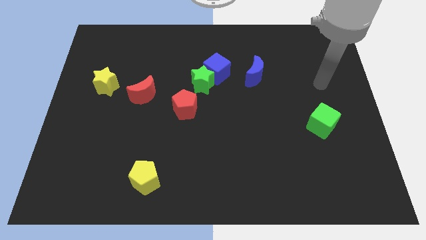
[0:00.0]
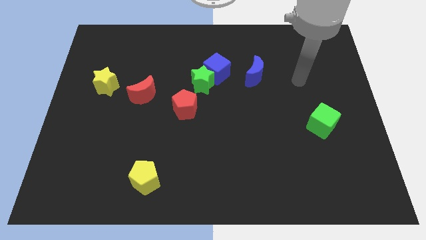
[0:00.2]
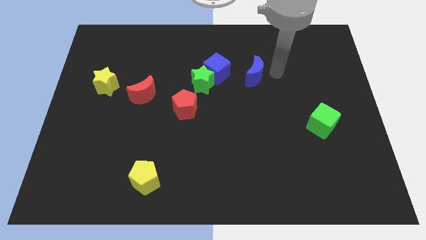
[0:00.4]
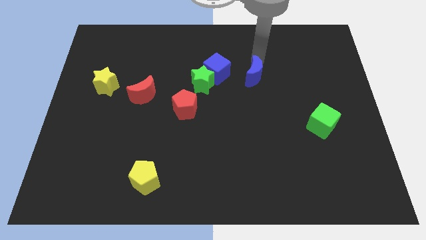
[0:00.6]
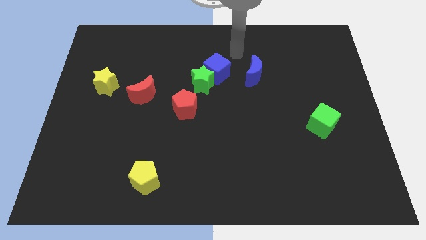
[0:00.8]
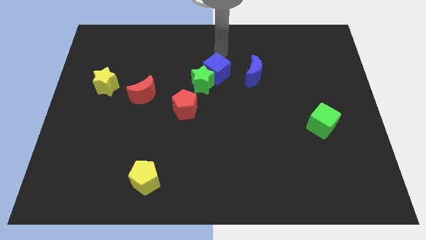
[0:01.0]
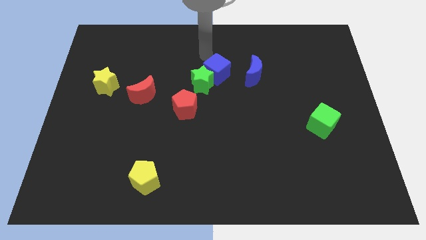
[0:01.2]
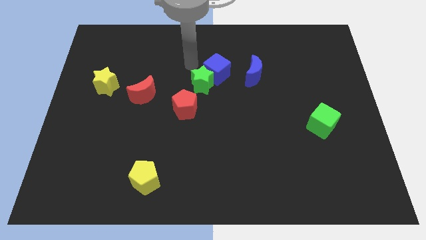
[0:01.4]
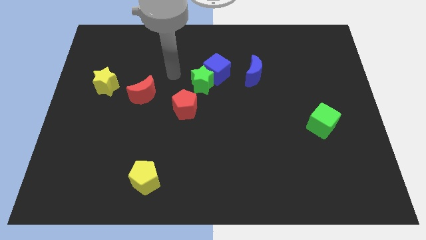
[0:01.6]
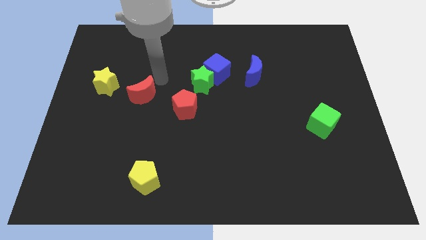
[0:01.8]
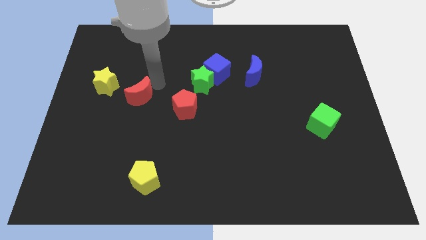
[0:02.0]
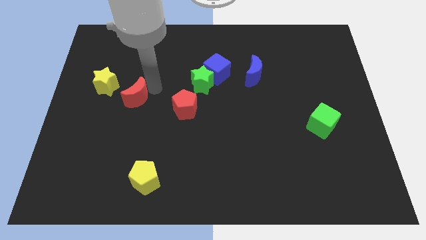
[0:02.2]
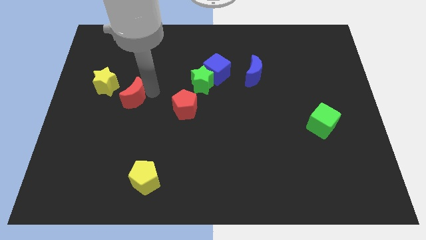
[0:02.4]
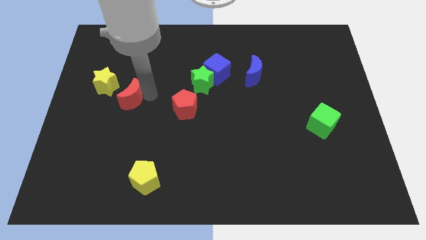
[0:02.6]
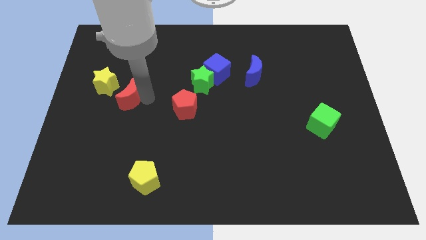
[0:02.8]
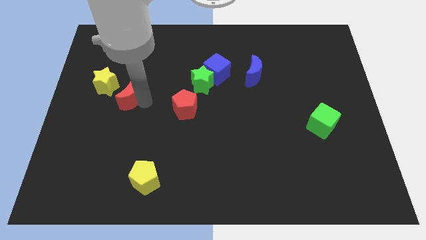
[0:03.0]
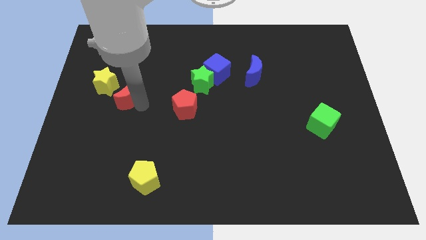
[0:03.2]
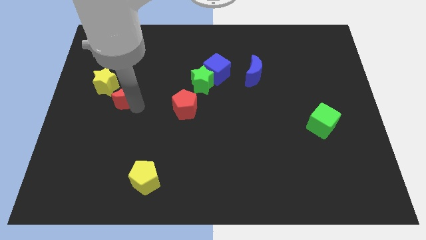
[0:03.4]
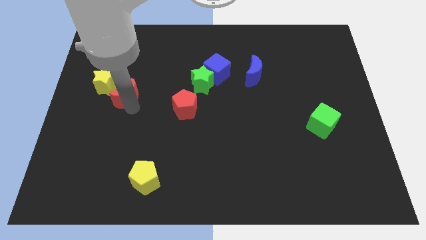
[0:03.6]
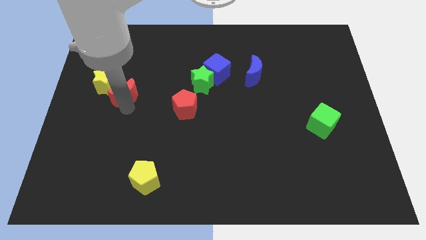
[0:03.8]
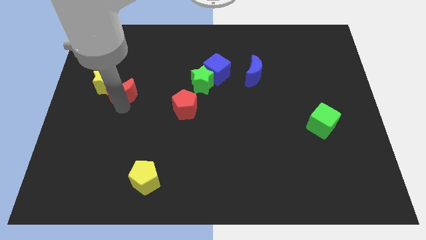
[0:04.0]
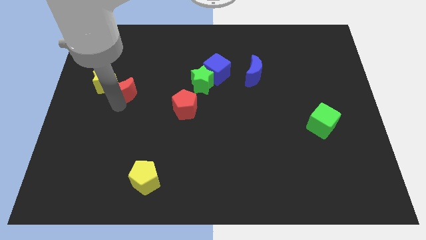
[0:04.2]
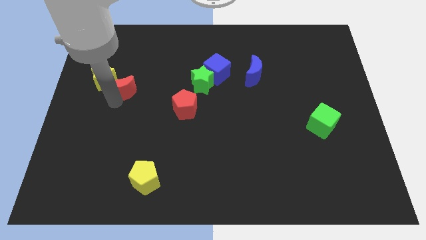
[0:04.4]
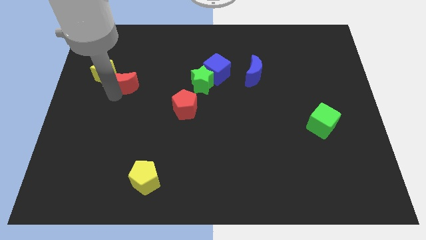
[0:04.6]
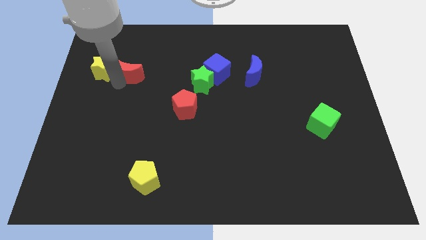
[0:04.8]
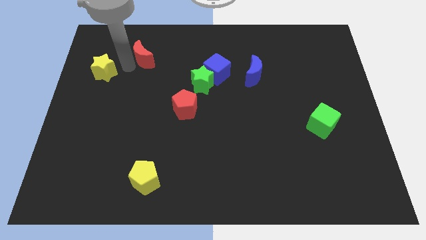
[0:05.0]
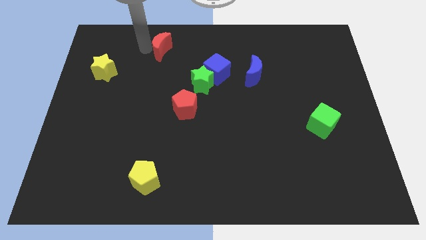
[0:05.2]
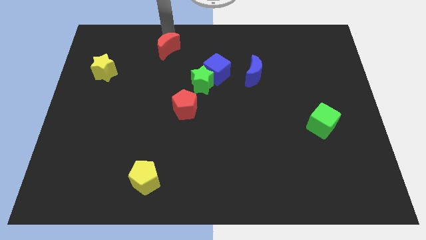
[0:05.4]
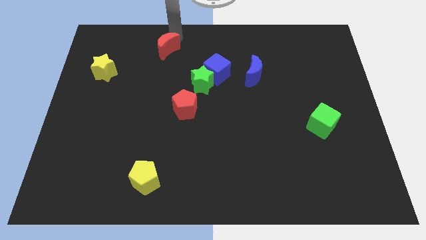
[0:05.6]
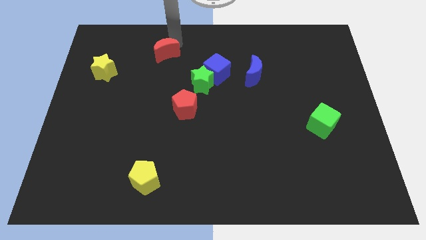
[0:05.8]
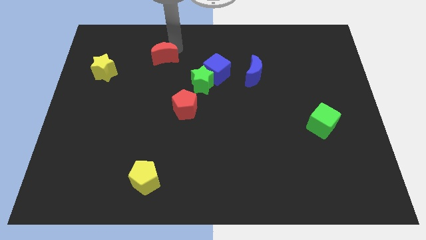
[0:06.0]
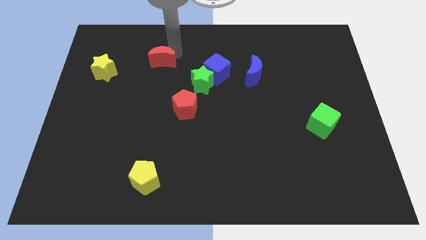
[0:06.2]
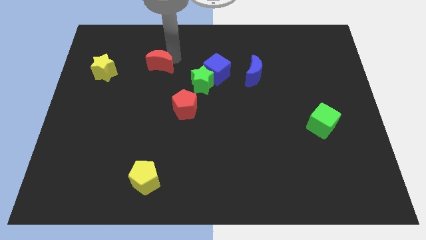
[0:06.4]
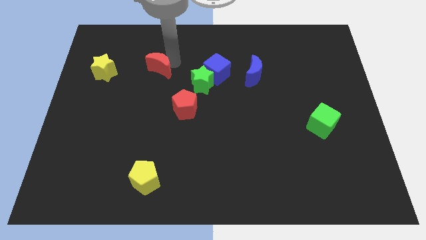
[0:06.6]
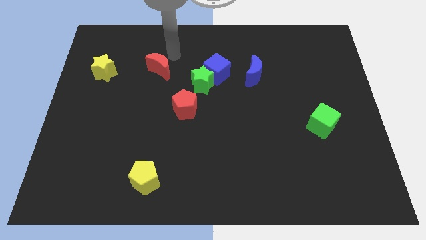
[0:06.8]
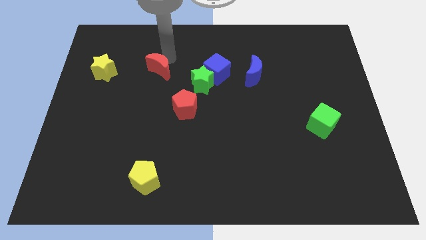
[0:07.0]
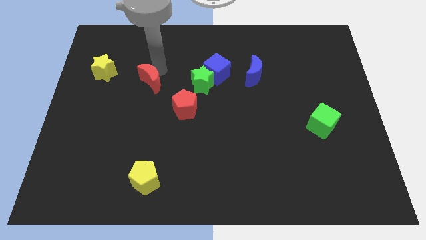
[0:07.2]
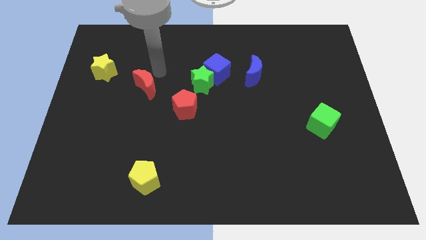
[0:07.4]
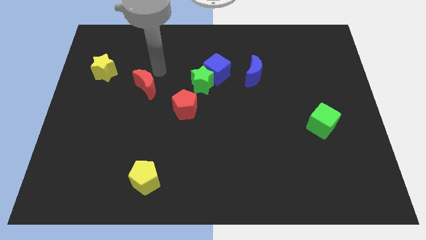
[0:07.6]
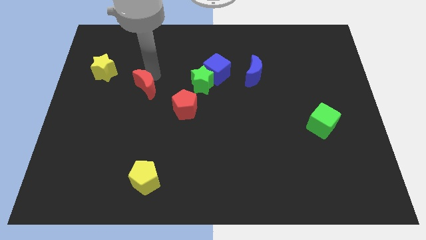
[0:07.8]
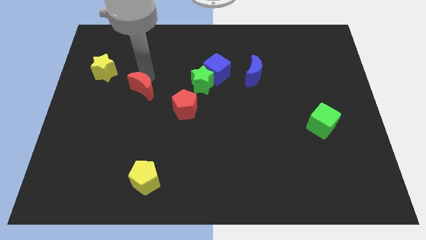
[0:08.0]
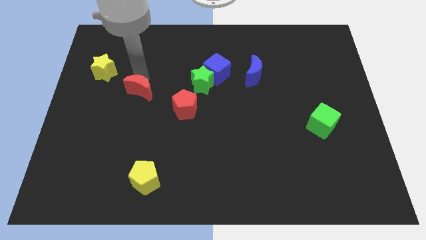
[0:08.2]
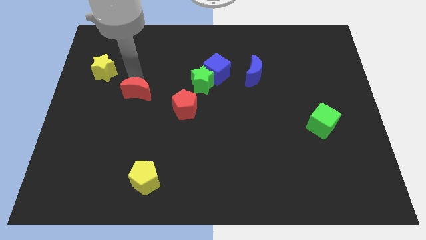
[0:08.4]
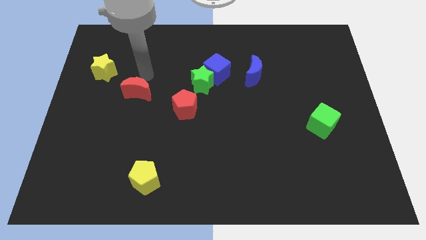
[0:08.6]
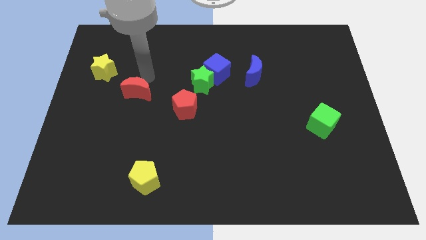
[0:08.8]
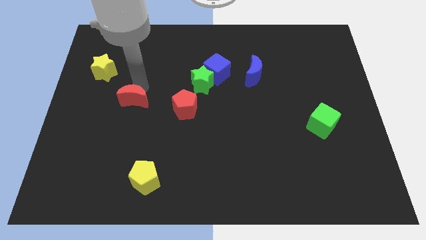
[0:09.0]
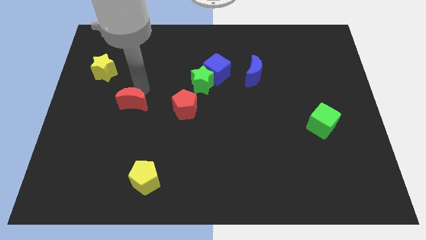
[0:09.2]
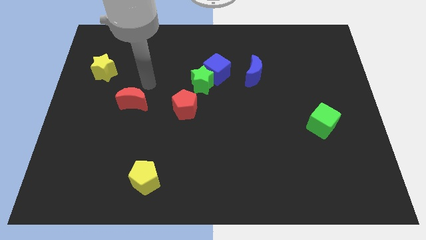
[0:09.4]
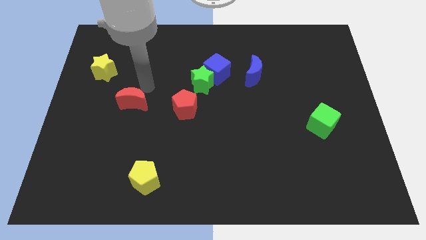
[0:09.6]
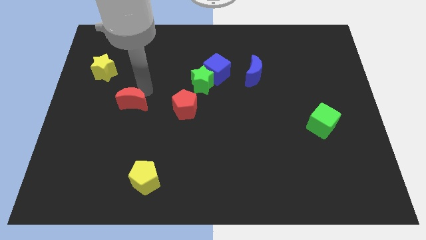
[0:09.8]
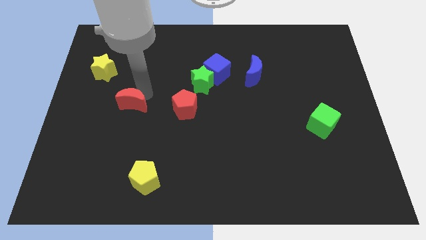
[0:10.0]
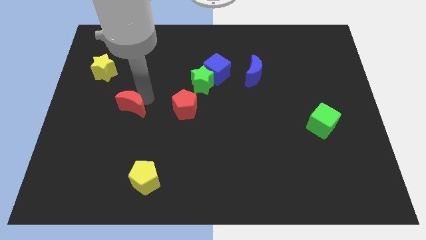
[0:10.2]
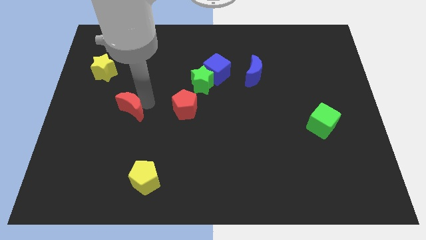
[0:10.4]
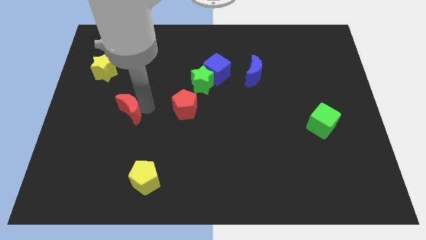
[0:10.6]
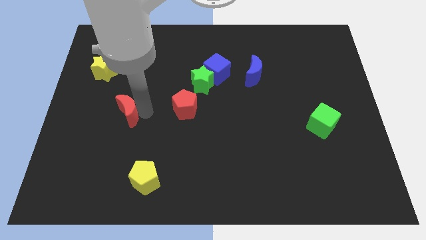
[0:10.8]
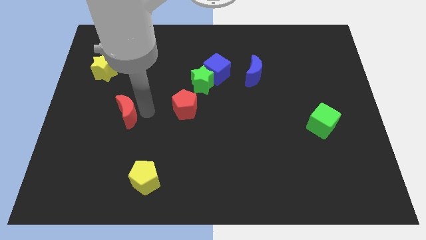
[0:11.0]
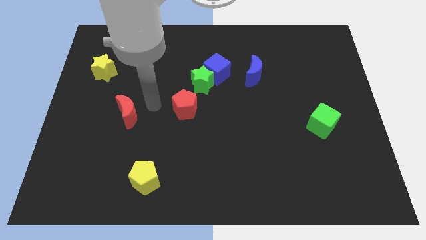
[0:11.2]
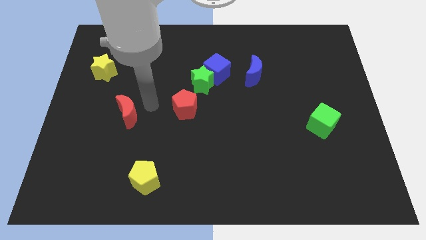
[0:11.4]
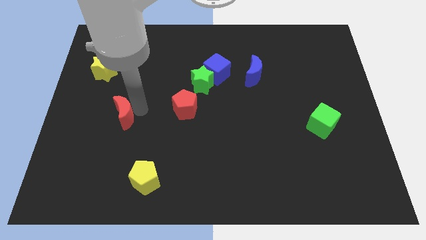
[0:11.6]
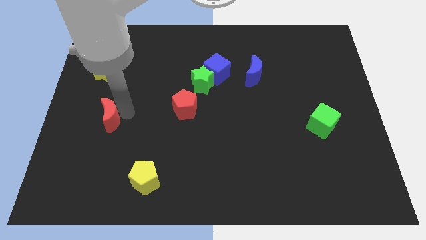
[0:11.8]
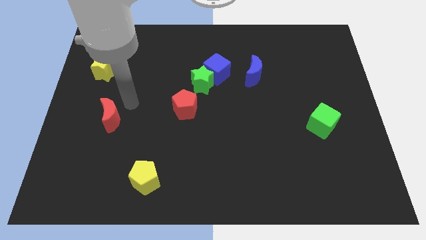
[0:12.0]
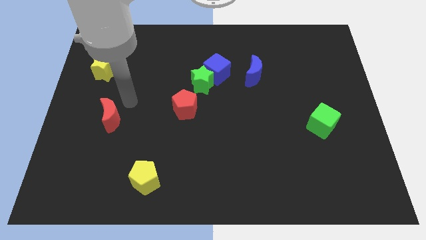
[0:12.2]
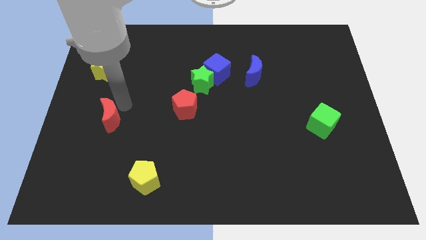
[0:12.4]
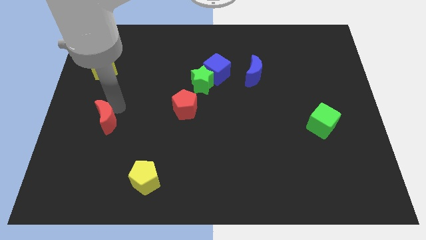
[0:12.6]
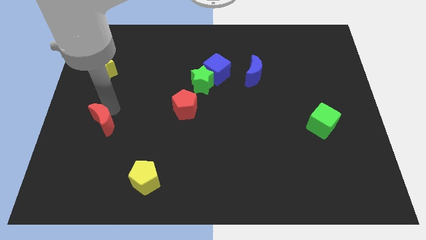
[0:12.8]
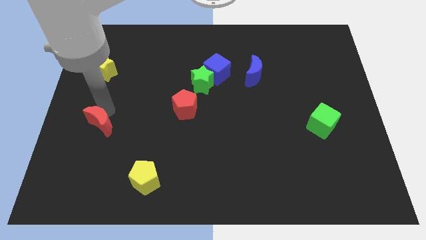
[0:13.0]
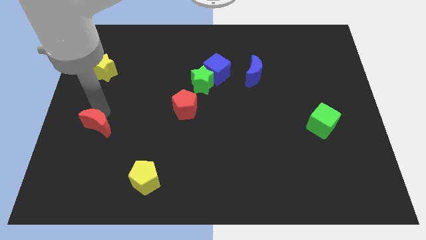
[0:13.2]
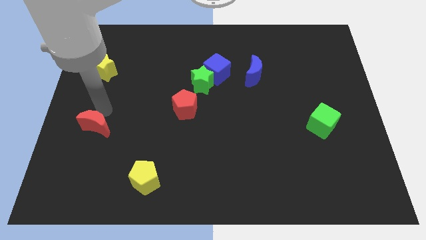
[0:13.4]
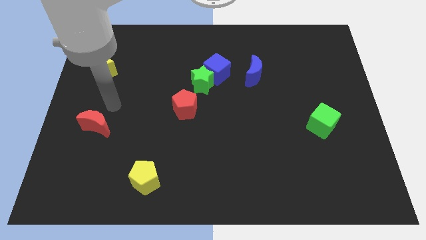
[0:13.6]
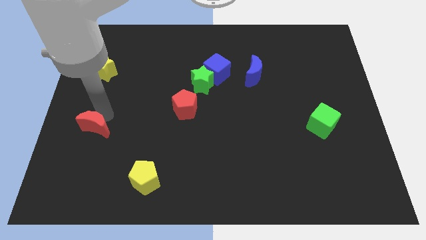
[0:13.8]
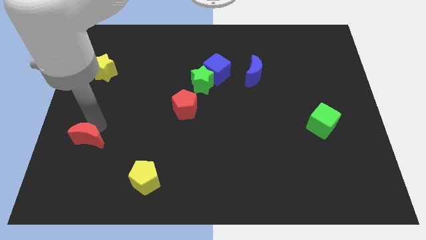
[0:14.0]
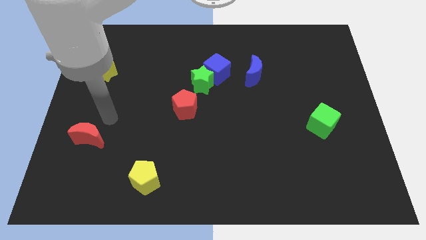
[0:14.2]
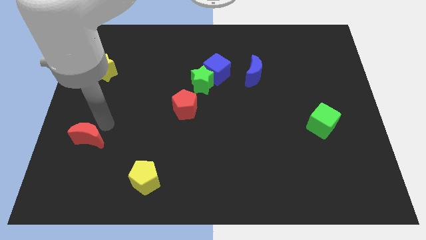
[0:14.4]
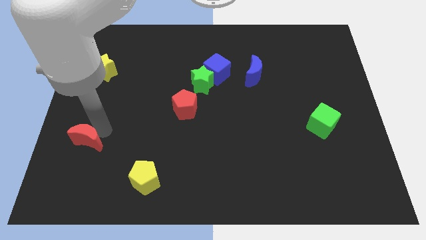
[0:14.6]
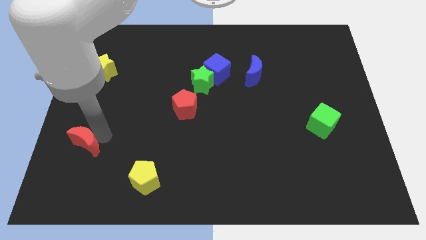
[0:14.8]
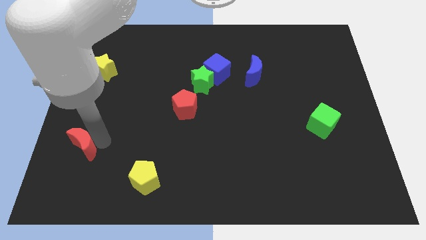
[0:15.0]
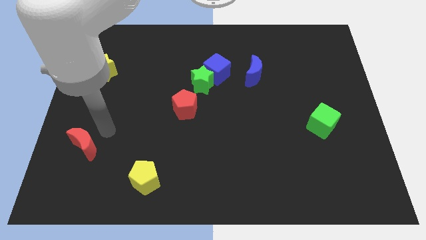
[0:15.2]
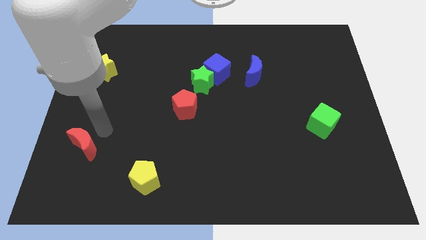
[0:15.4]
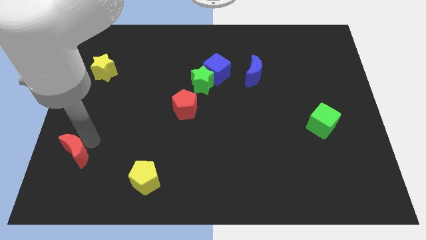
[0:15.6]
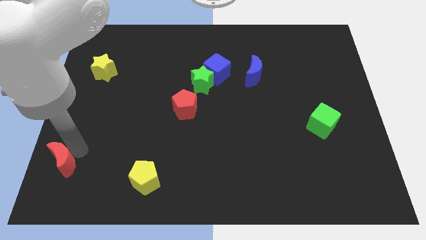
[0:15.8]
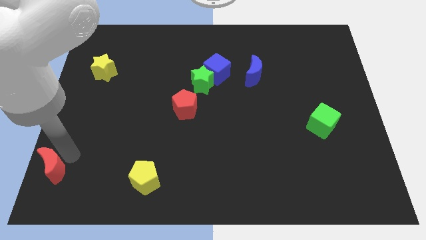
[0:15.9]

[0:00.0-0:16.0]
push the red moon to the bottom left corner
